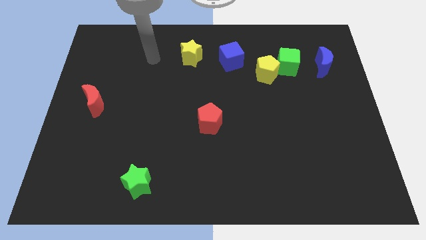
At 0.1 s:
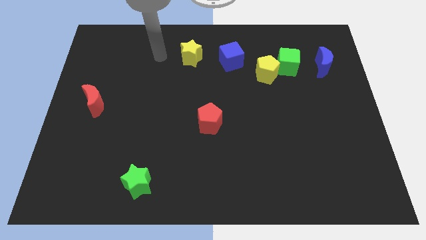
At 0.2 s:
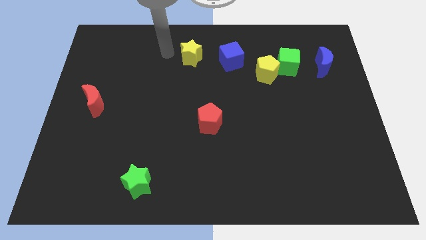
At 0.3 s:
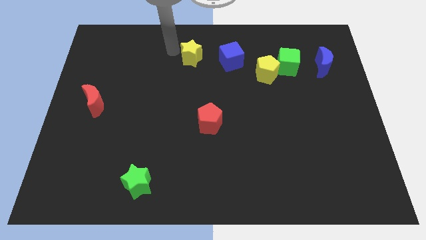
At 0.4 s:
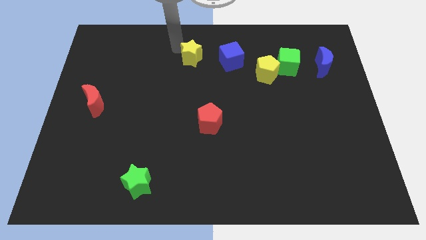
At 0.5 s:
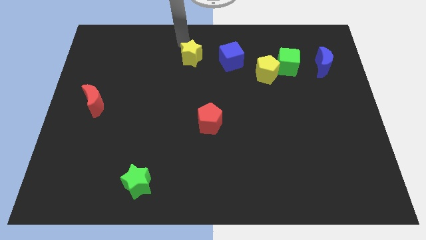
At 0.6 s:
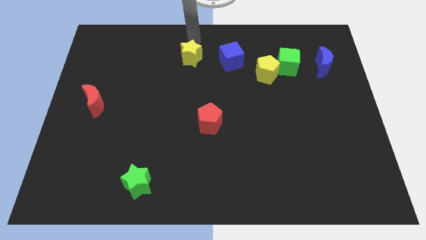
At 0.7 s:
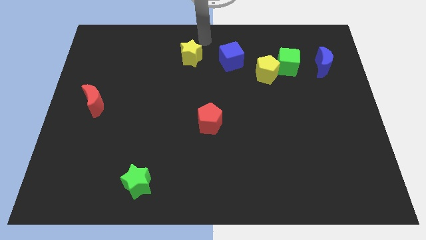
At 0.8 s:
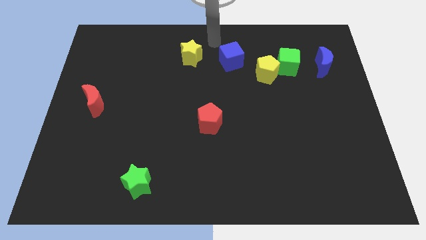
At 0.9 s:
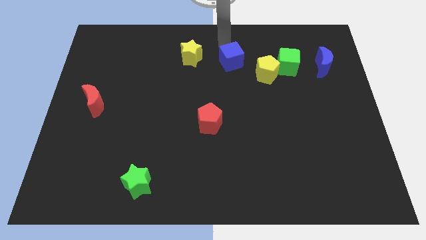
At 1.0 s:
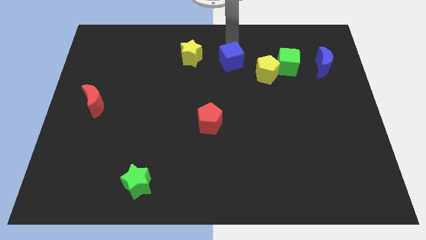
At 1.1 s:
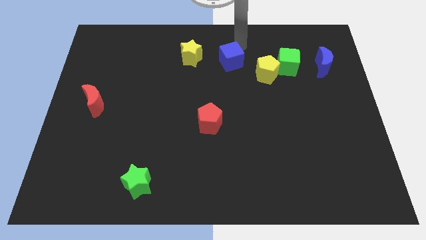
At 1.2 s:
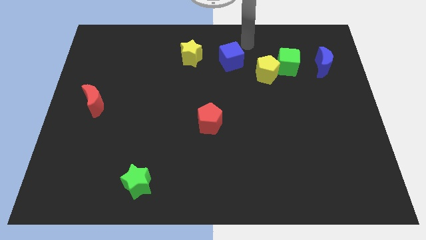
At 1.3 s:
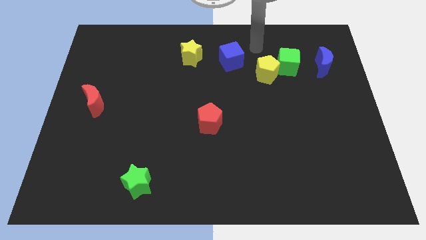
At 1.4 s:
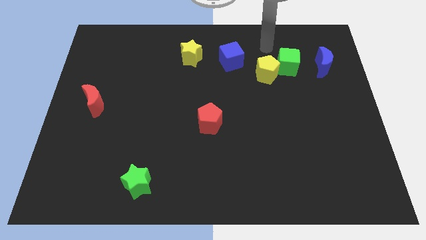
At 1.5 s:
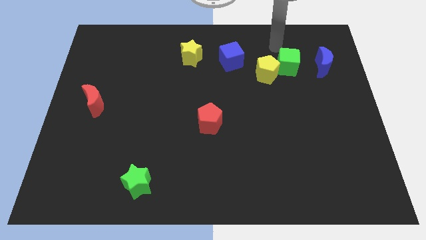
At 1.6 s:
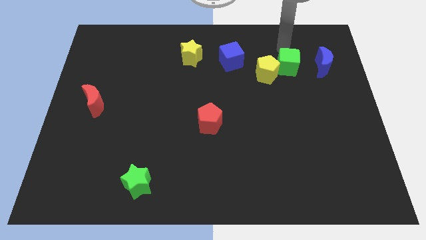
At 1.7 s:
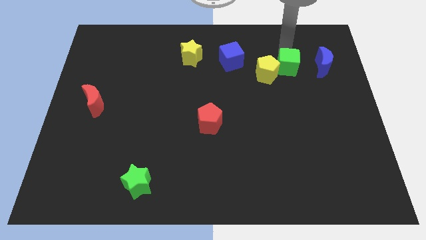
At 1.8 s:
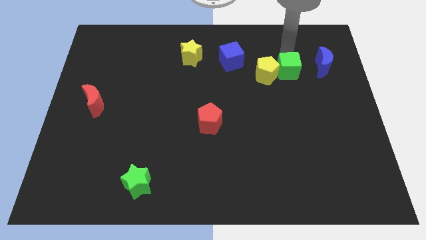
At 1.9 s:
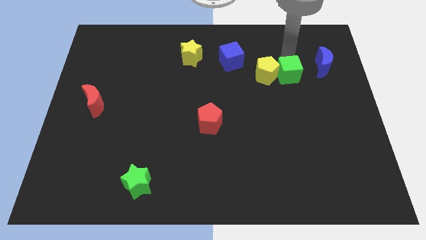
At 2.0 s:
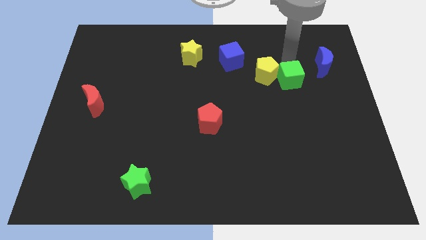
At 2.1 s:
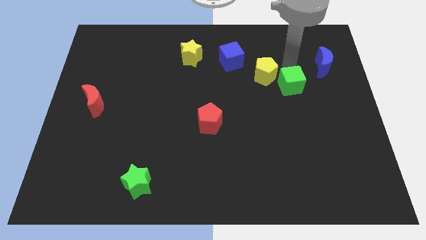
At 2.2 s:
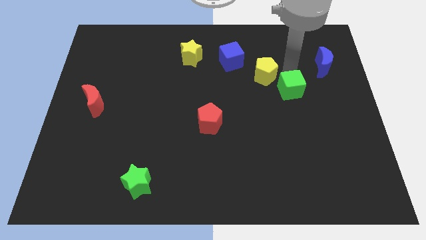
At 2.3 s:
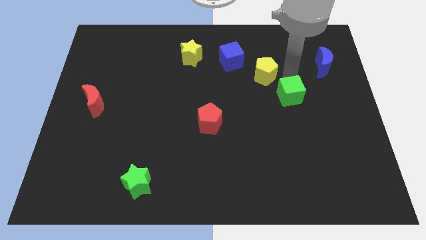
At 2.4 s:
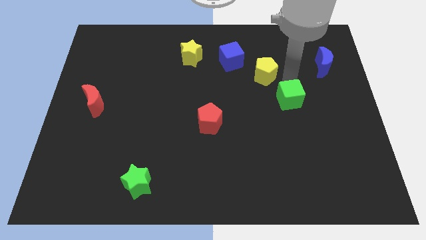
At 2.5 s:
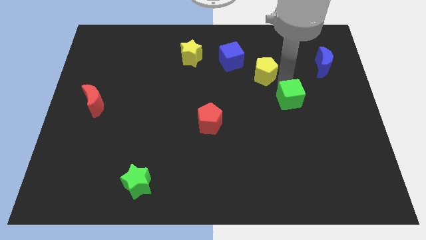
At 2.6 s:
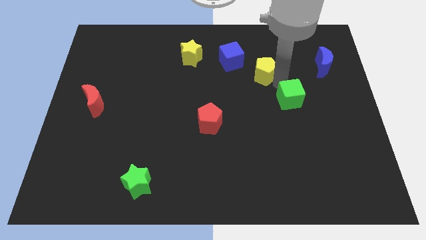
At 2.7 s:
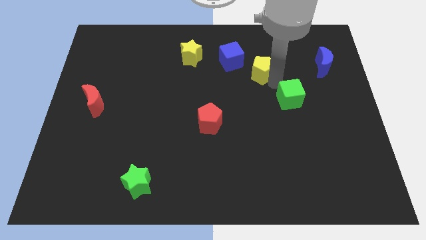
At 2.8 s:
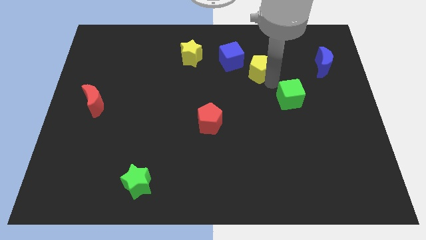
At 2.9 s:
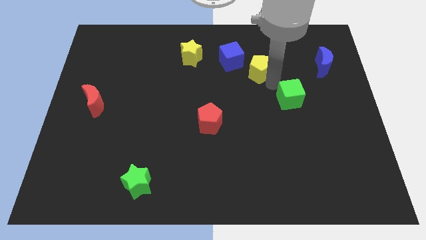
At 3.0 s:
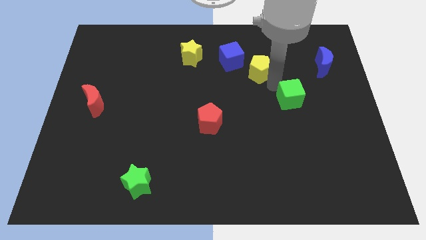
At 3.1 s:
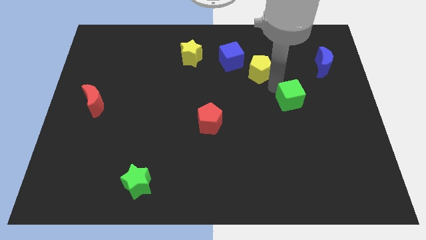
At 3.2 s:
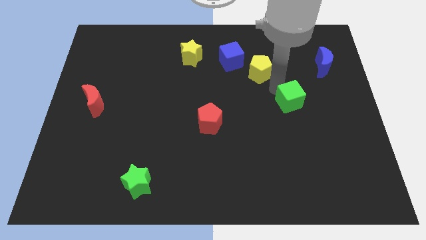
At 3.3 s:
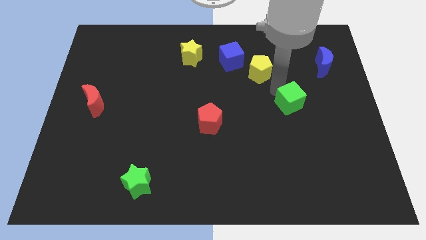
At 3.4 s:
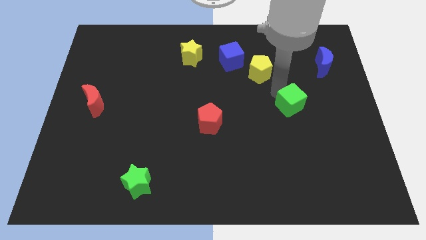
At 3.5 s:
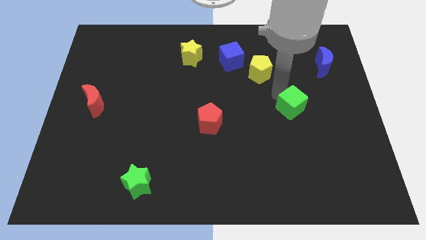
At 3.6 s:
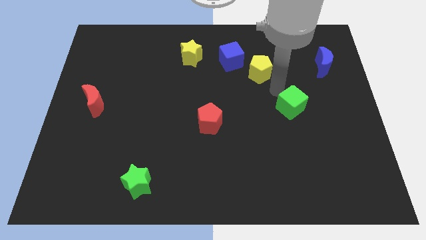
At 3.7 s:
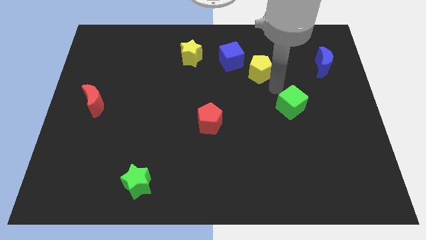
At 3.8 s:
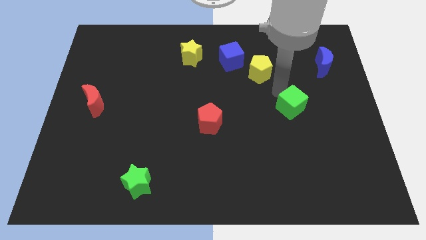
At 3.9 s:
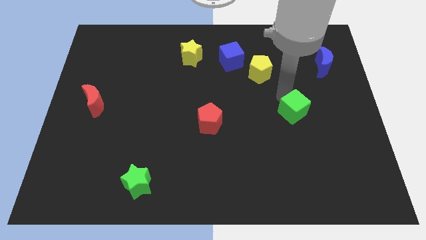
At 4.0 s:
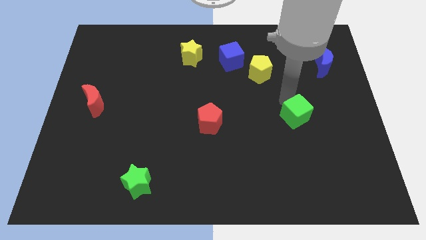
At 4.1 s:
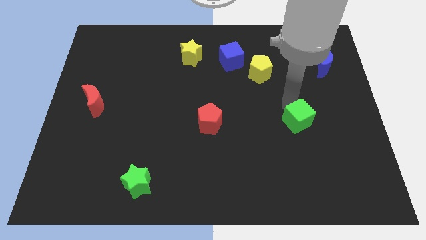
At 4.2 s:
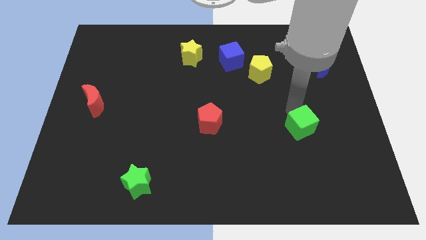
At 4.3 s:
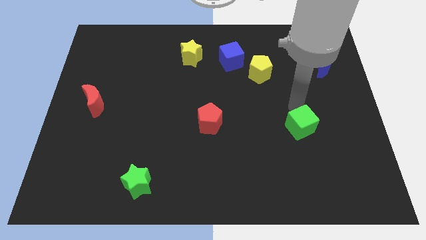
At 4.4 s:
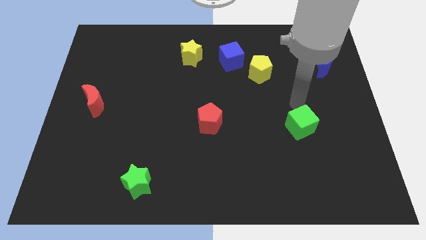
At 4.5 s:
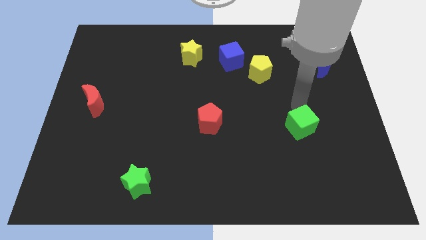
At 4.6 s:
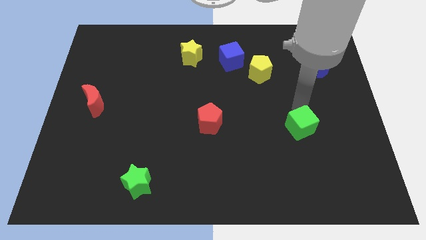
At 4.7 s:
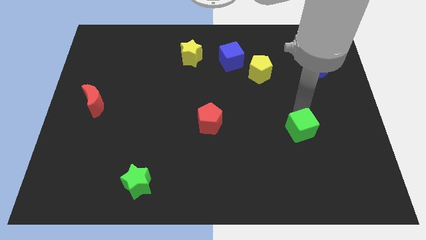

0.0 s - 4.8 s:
slide the green cube down

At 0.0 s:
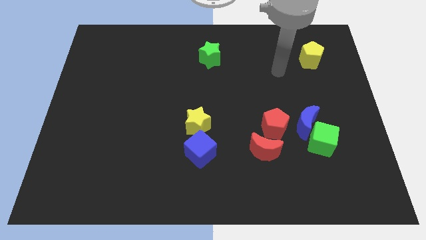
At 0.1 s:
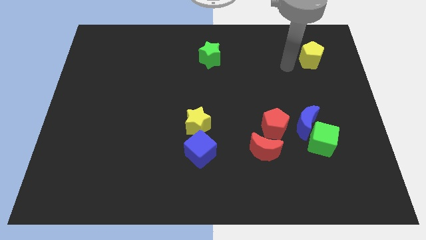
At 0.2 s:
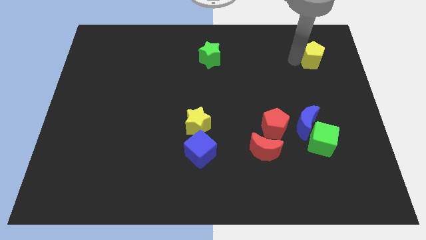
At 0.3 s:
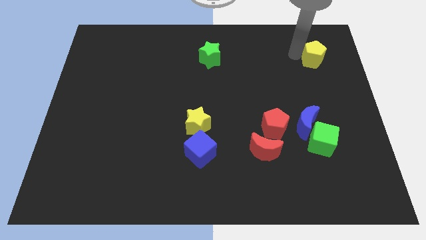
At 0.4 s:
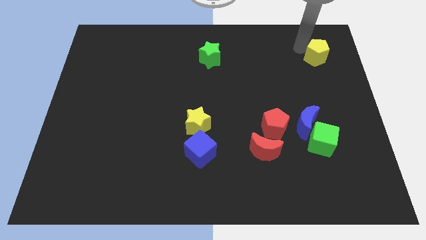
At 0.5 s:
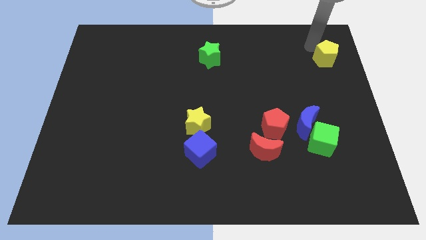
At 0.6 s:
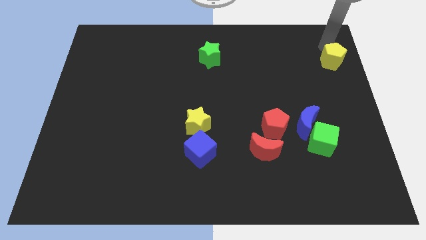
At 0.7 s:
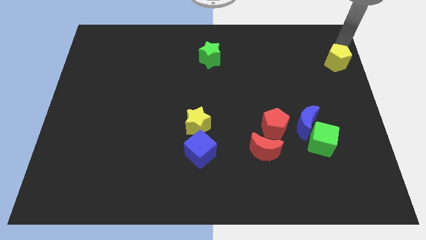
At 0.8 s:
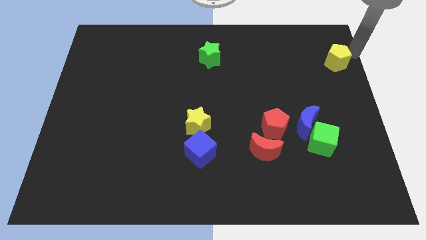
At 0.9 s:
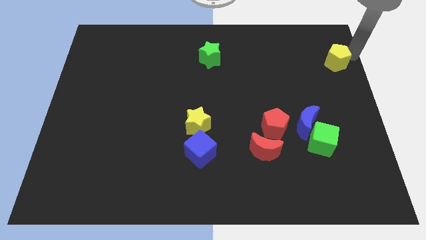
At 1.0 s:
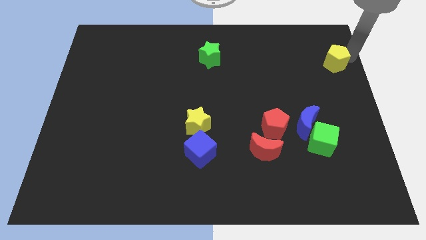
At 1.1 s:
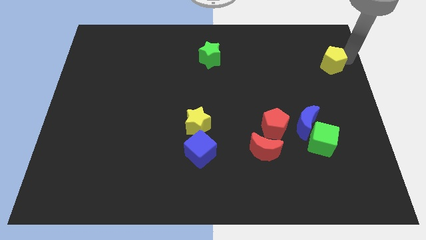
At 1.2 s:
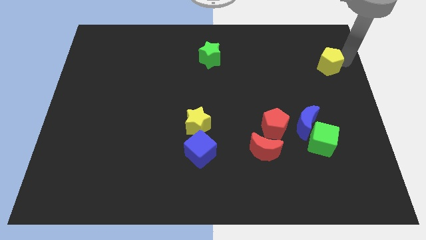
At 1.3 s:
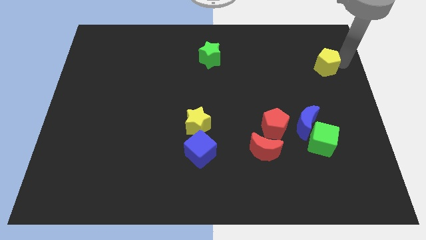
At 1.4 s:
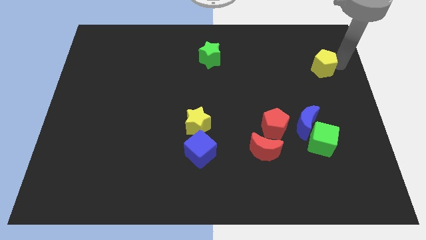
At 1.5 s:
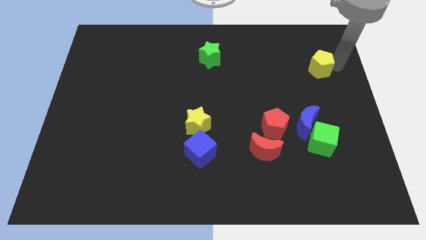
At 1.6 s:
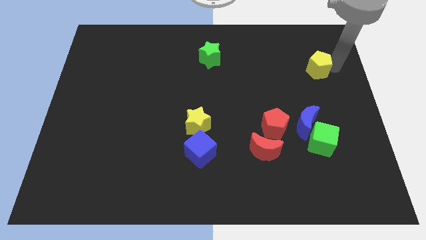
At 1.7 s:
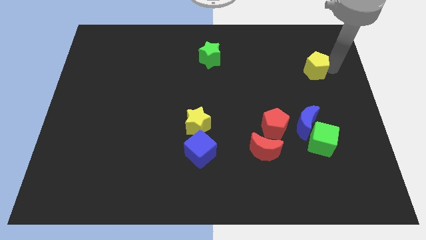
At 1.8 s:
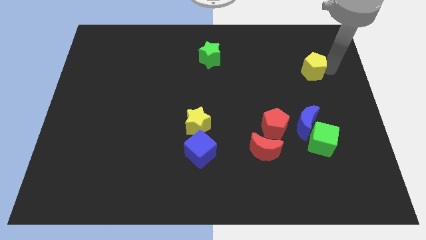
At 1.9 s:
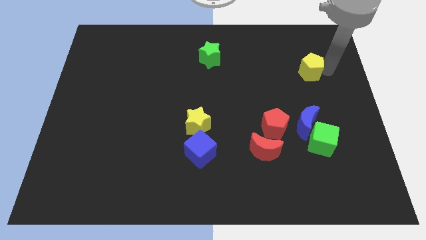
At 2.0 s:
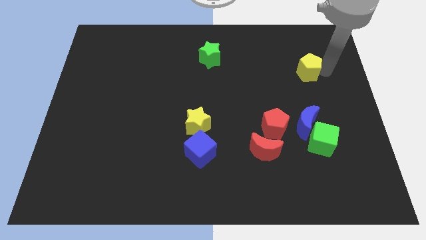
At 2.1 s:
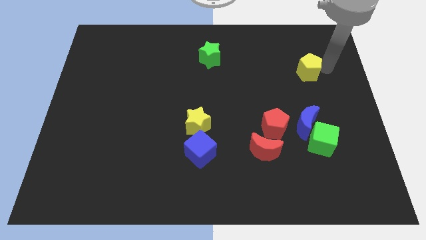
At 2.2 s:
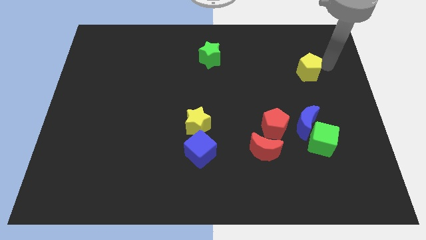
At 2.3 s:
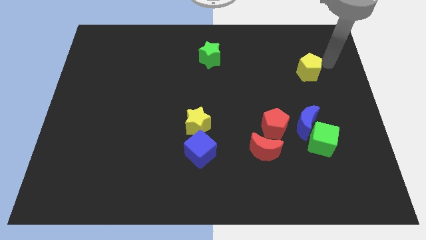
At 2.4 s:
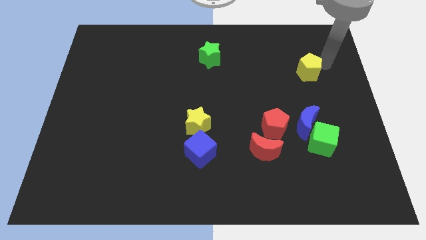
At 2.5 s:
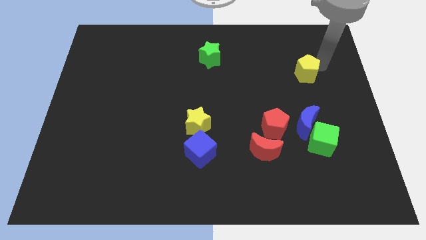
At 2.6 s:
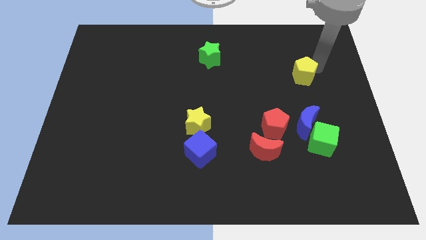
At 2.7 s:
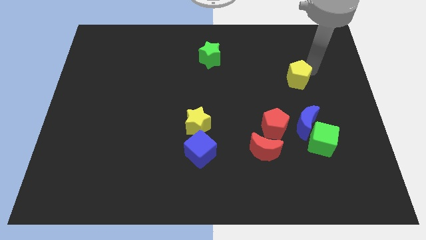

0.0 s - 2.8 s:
push the yellow pentagon down and left a bit

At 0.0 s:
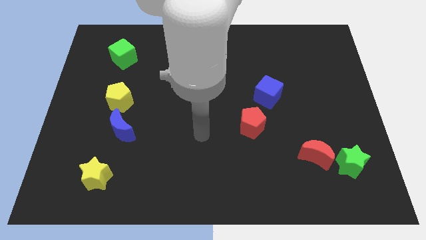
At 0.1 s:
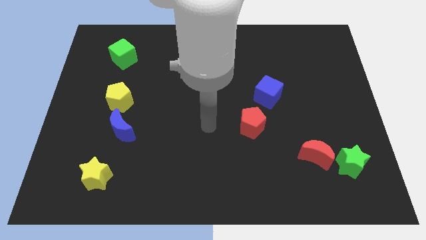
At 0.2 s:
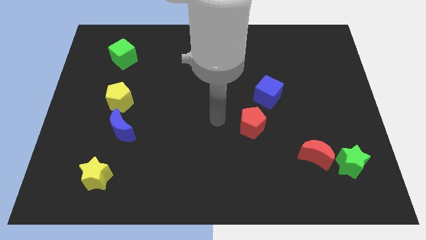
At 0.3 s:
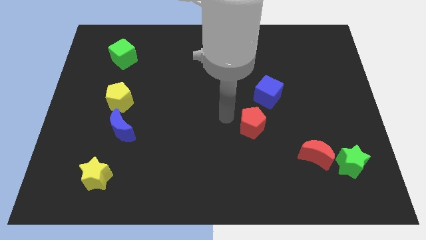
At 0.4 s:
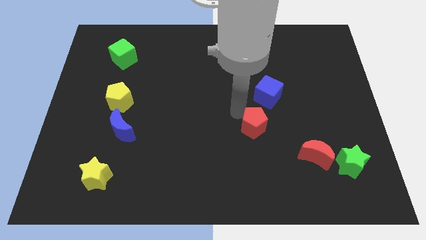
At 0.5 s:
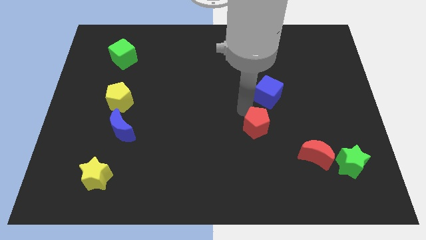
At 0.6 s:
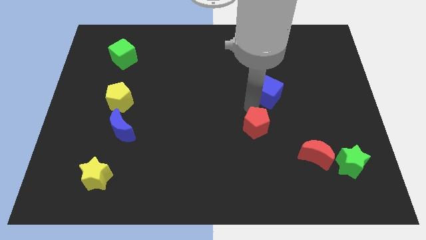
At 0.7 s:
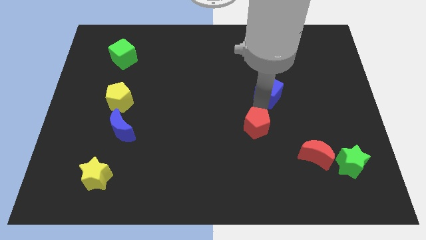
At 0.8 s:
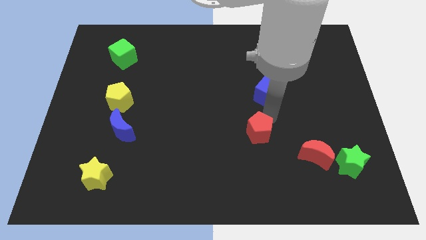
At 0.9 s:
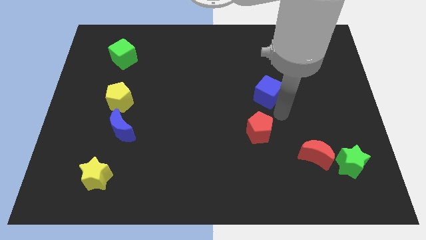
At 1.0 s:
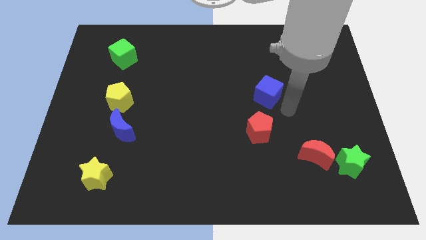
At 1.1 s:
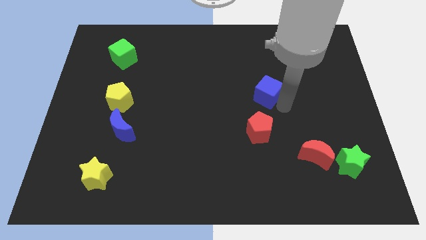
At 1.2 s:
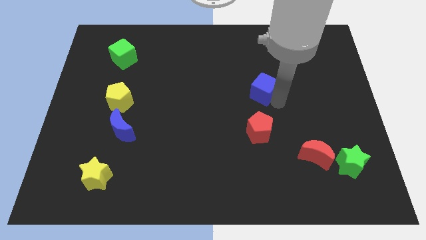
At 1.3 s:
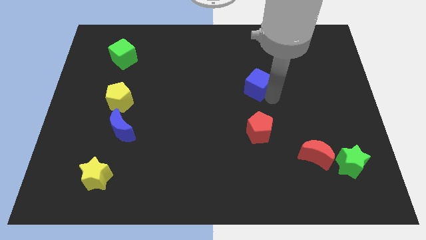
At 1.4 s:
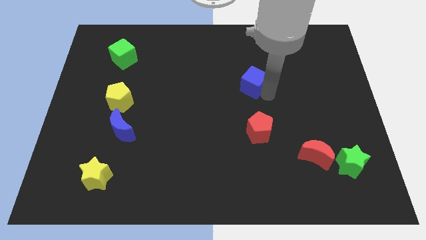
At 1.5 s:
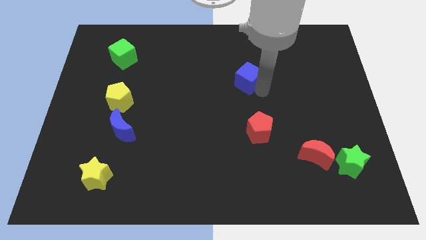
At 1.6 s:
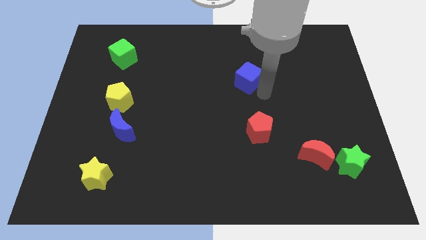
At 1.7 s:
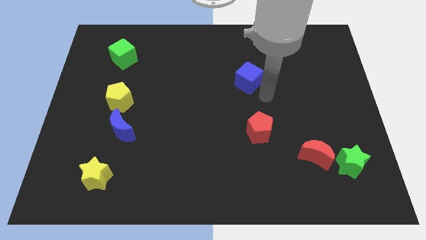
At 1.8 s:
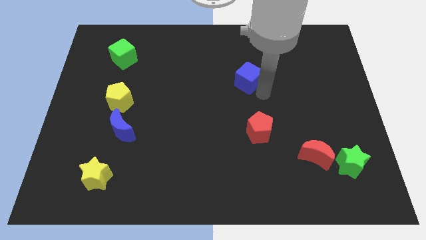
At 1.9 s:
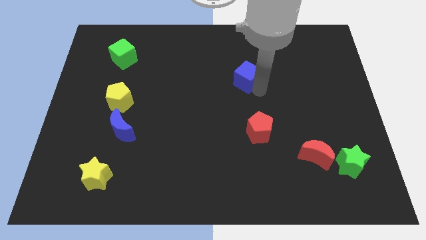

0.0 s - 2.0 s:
slightly push the blue cube upwards and then to the left
